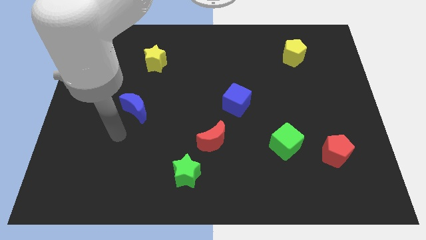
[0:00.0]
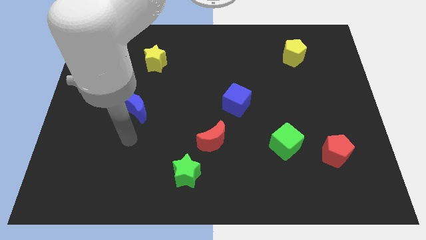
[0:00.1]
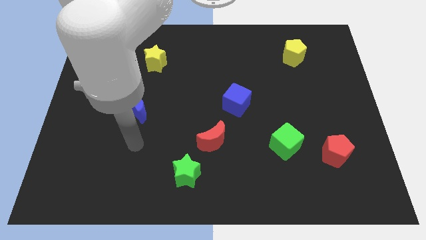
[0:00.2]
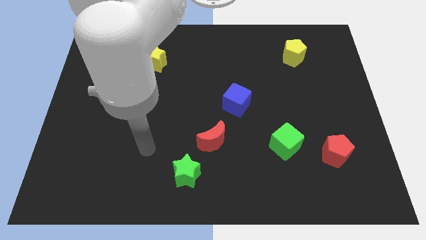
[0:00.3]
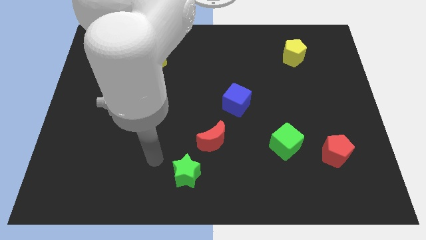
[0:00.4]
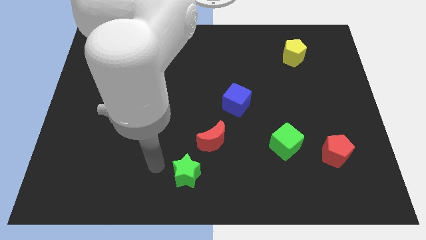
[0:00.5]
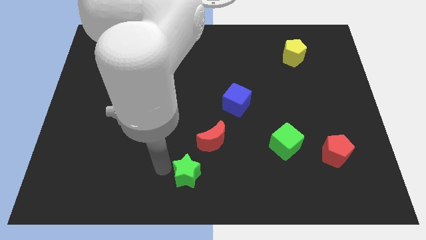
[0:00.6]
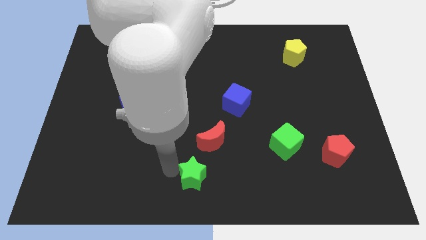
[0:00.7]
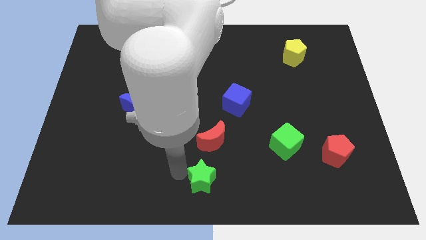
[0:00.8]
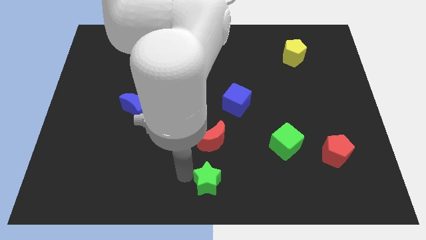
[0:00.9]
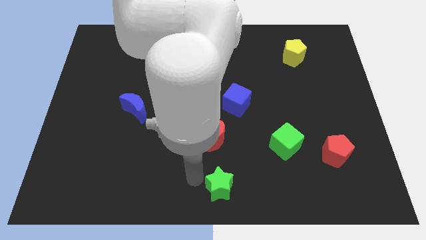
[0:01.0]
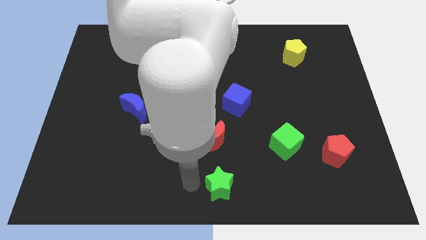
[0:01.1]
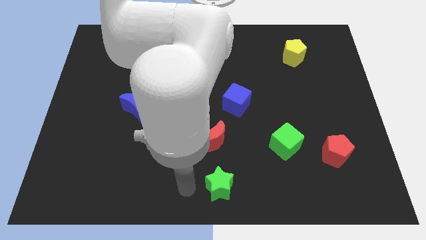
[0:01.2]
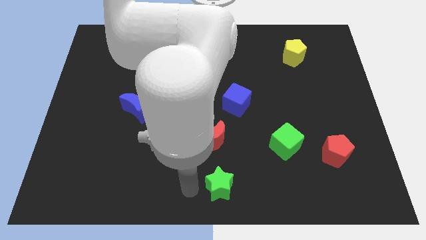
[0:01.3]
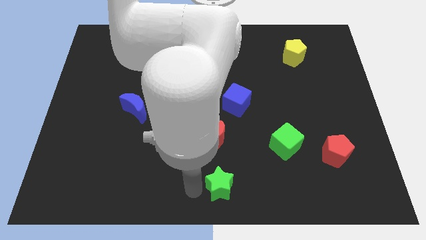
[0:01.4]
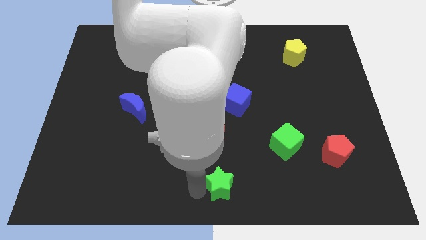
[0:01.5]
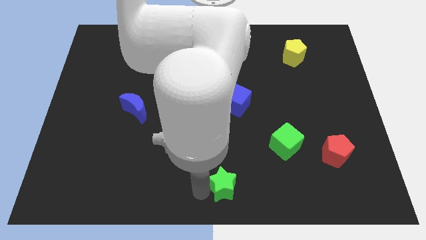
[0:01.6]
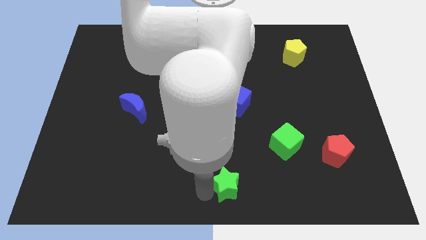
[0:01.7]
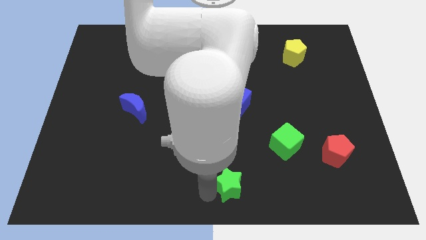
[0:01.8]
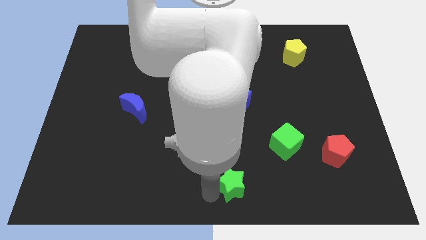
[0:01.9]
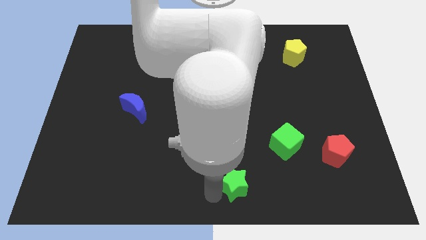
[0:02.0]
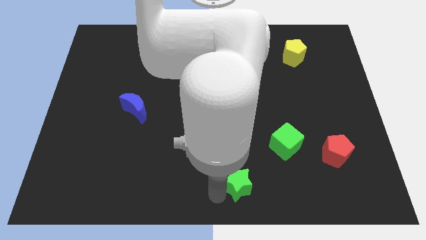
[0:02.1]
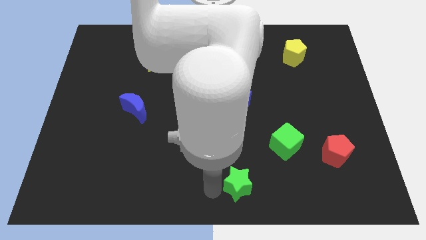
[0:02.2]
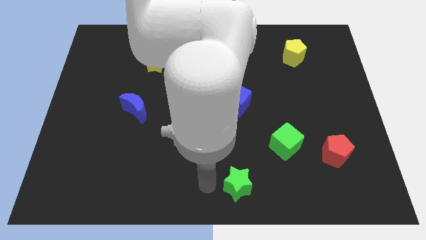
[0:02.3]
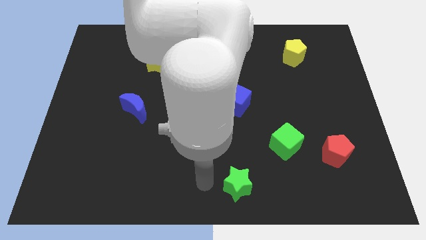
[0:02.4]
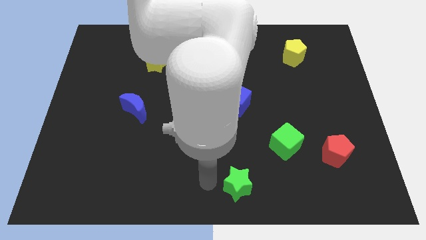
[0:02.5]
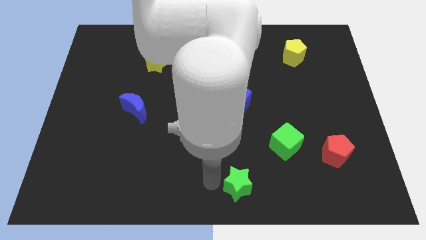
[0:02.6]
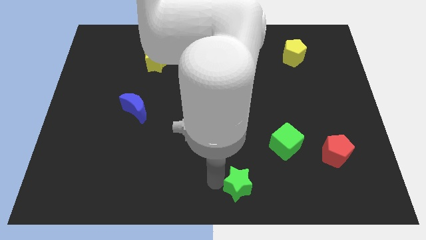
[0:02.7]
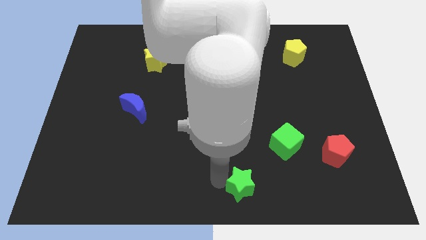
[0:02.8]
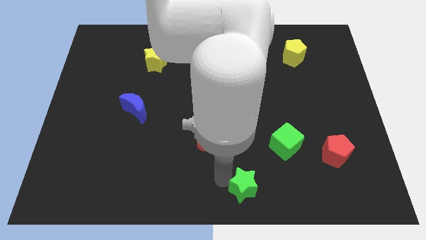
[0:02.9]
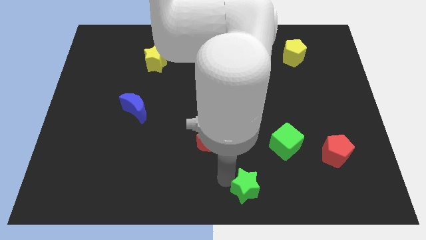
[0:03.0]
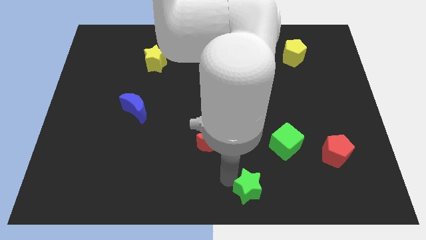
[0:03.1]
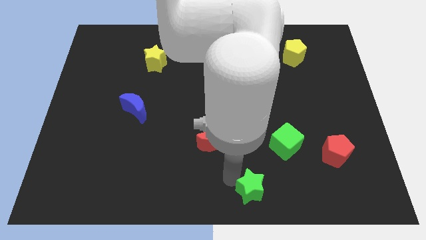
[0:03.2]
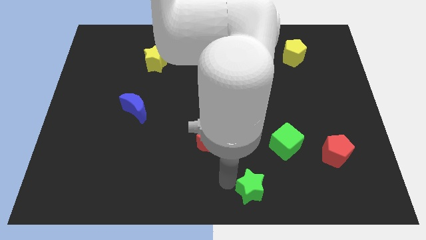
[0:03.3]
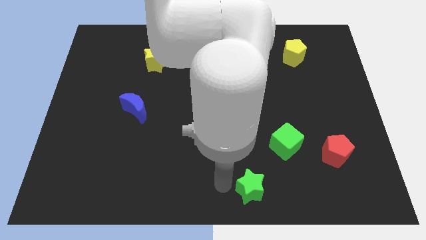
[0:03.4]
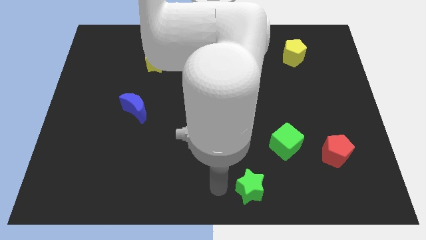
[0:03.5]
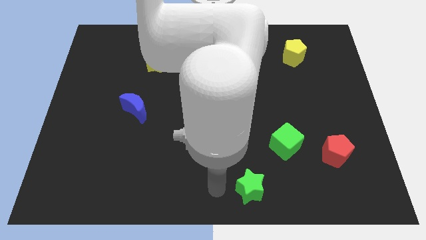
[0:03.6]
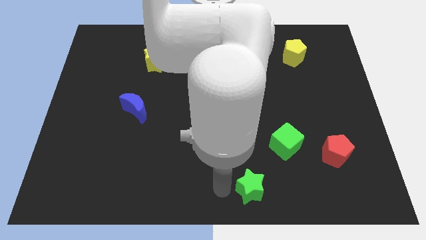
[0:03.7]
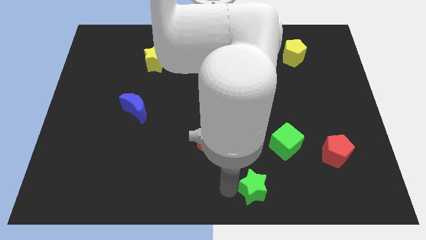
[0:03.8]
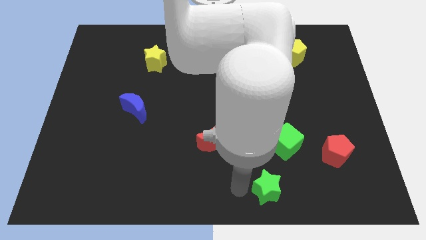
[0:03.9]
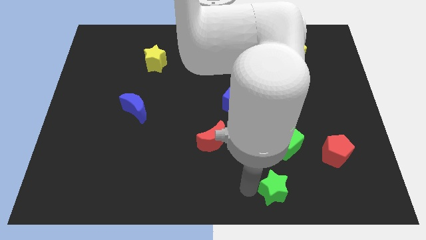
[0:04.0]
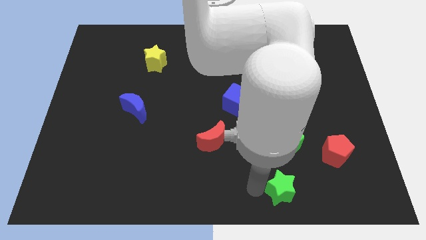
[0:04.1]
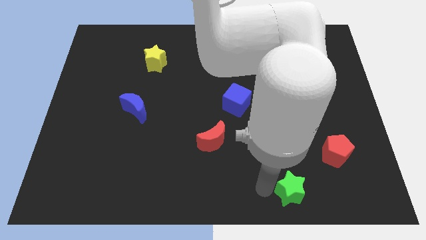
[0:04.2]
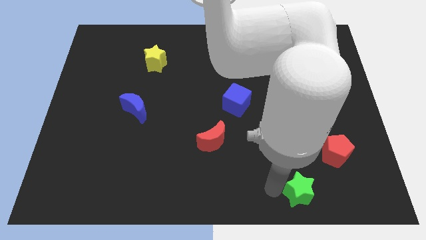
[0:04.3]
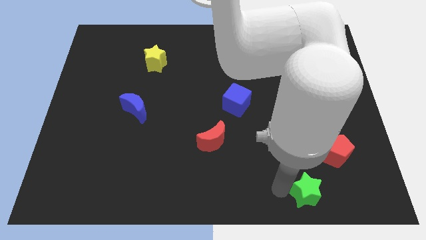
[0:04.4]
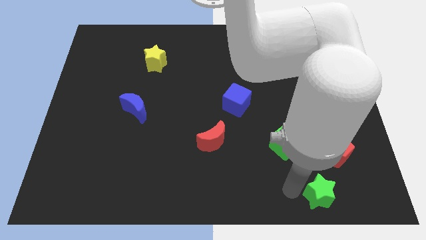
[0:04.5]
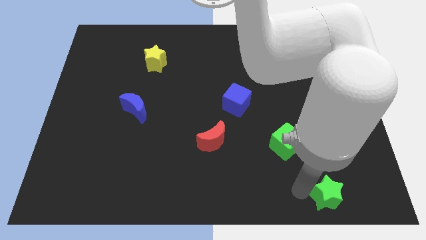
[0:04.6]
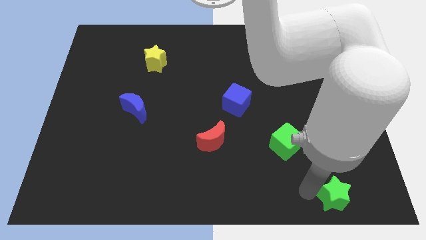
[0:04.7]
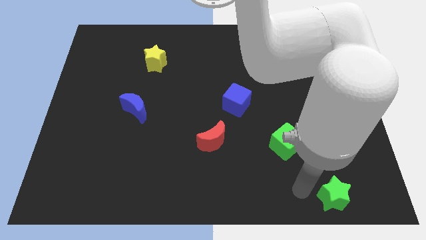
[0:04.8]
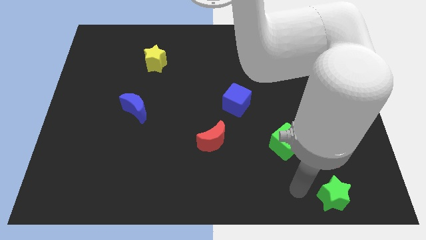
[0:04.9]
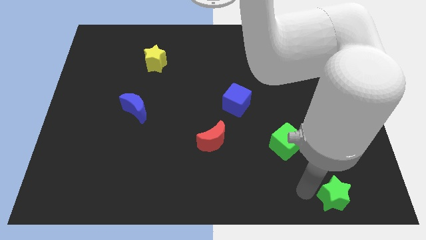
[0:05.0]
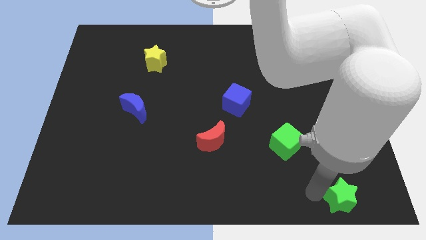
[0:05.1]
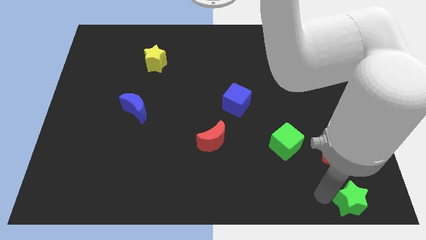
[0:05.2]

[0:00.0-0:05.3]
slide the green star to the lower right corner

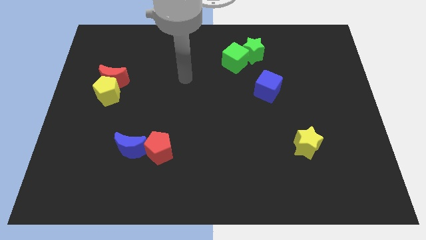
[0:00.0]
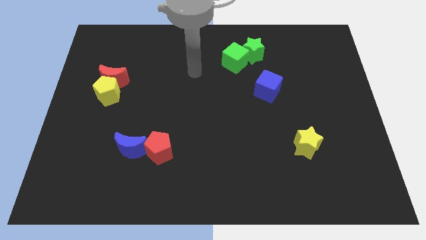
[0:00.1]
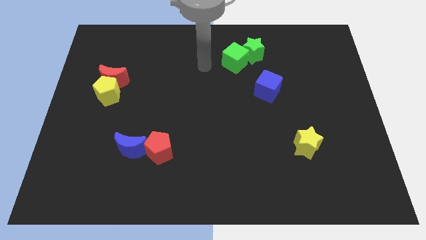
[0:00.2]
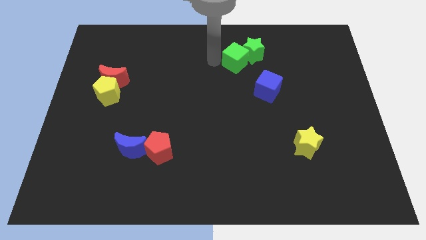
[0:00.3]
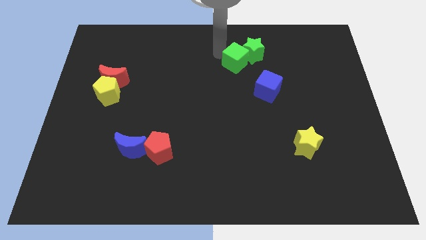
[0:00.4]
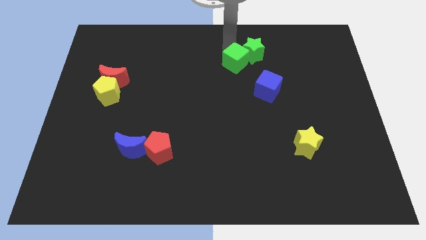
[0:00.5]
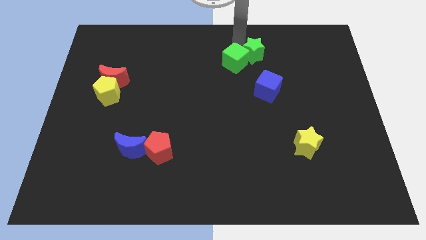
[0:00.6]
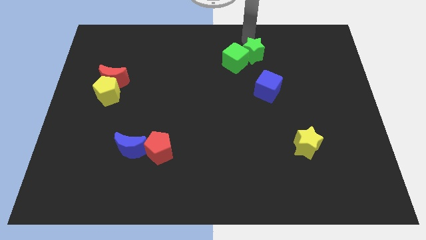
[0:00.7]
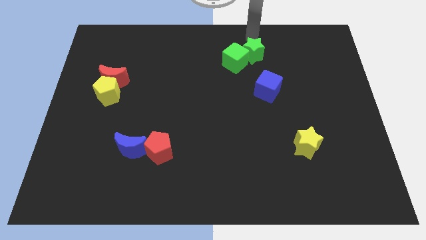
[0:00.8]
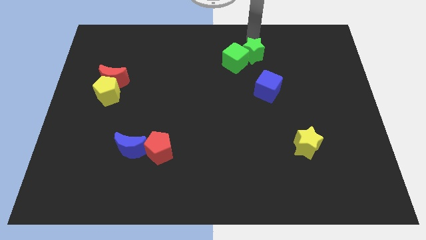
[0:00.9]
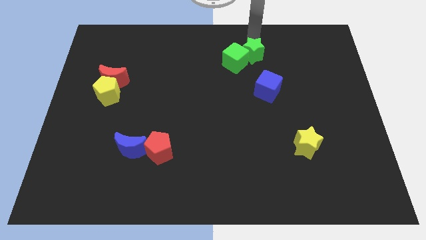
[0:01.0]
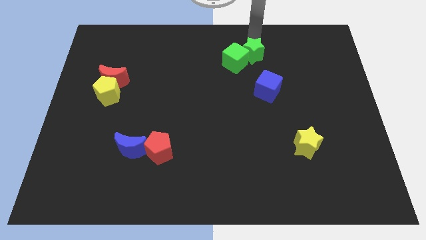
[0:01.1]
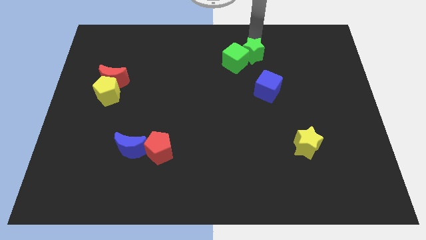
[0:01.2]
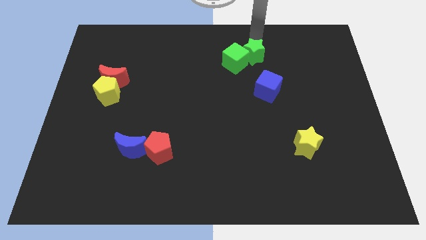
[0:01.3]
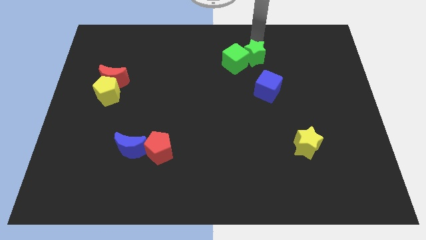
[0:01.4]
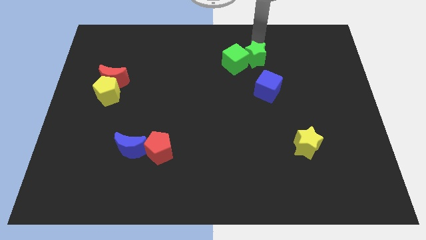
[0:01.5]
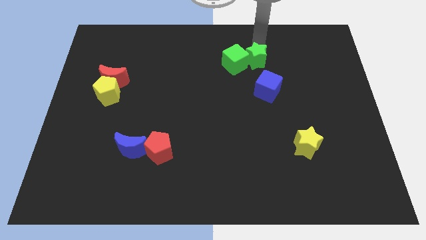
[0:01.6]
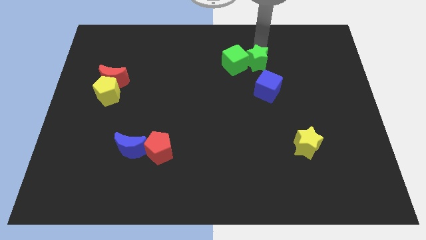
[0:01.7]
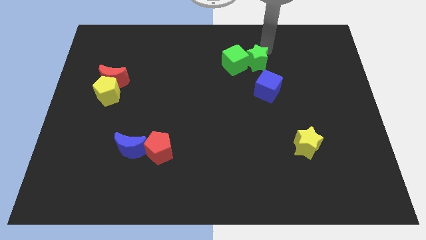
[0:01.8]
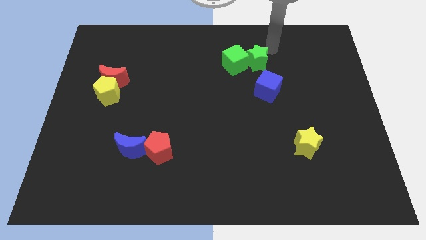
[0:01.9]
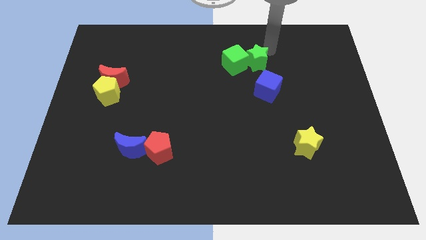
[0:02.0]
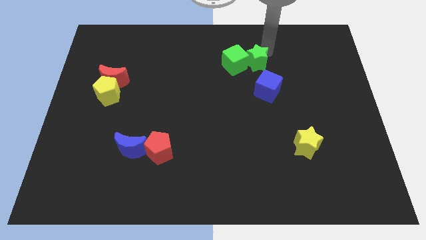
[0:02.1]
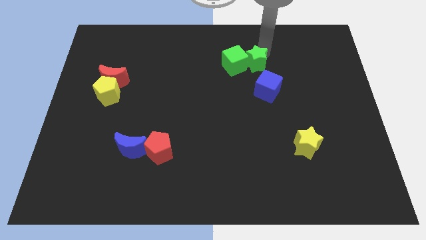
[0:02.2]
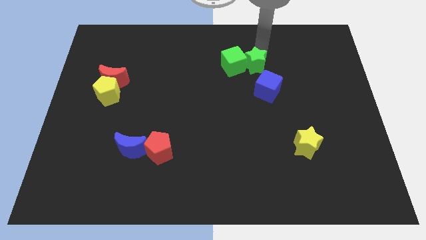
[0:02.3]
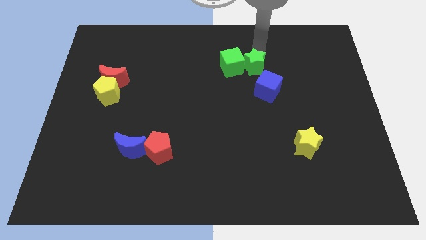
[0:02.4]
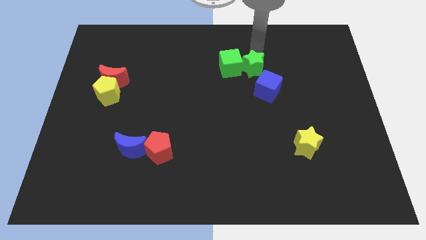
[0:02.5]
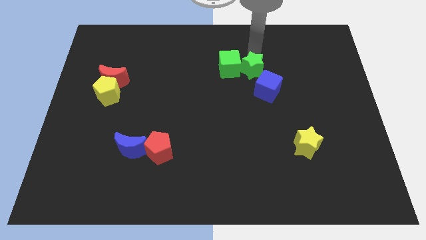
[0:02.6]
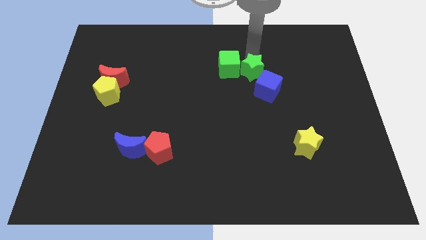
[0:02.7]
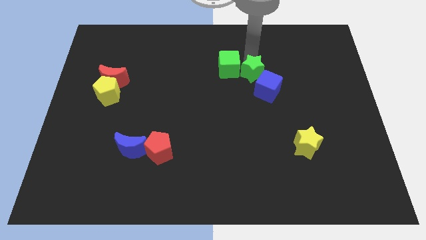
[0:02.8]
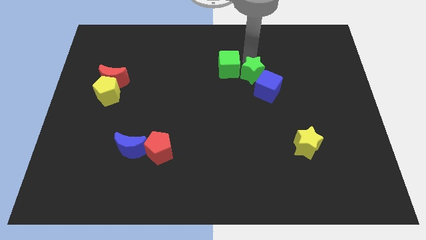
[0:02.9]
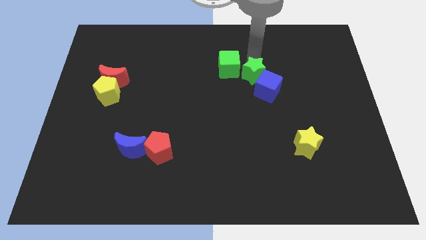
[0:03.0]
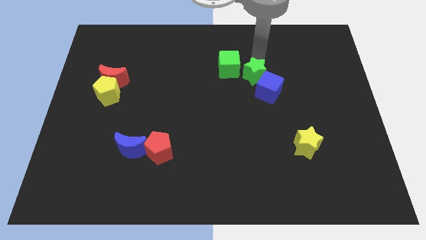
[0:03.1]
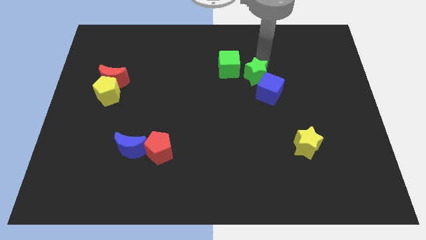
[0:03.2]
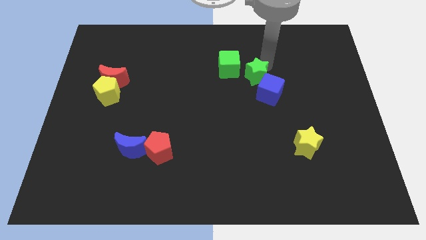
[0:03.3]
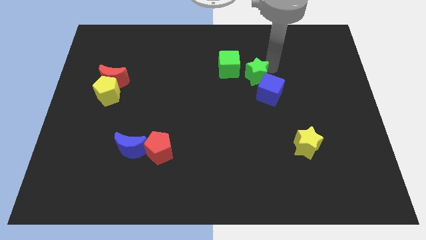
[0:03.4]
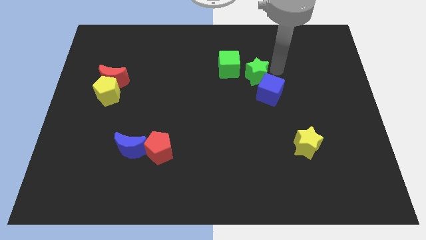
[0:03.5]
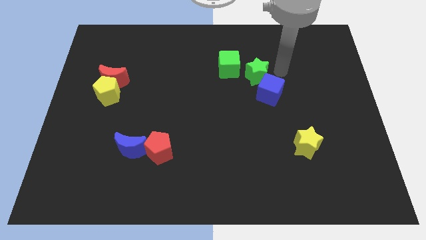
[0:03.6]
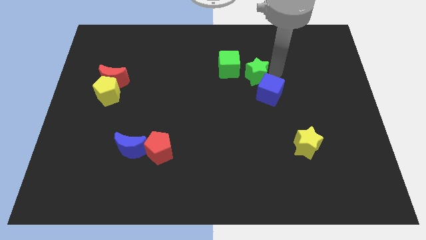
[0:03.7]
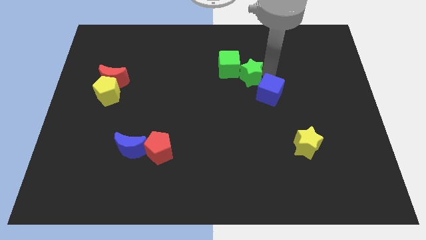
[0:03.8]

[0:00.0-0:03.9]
slide the green star to the center of the board
